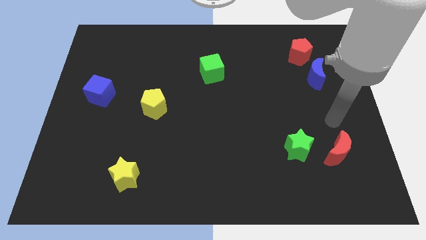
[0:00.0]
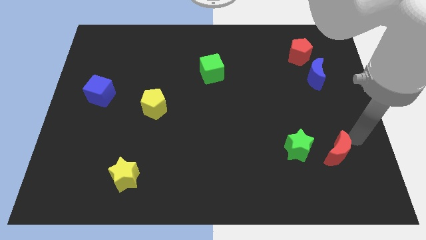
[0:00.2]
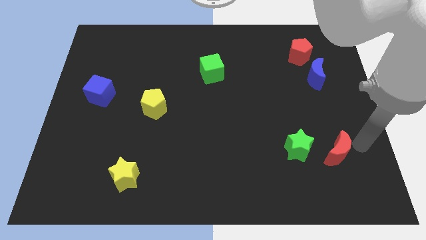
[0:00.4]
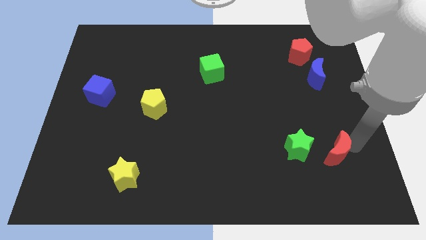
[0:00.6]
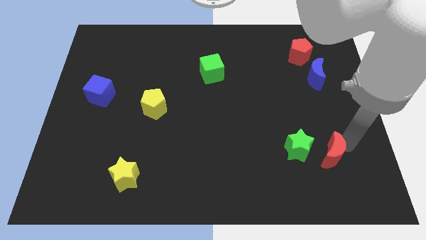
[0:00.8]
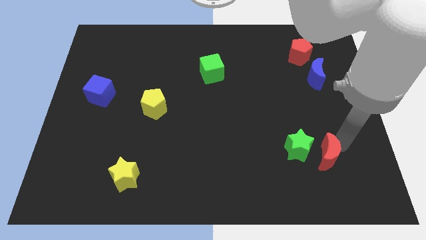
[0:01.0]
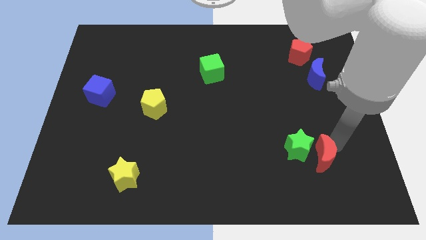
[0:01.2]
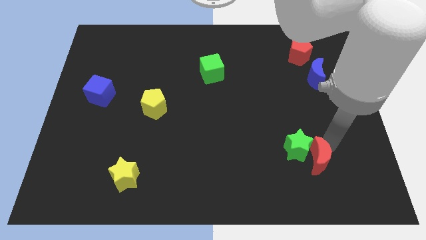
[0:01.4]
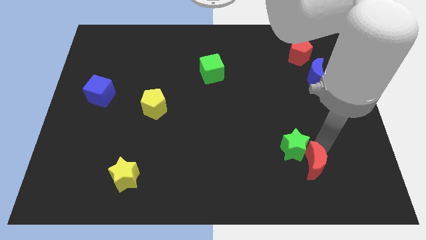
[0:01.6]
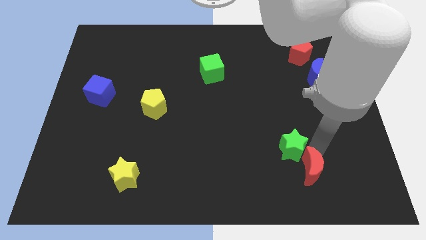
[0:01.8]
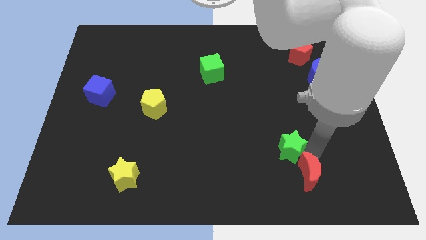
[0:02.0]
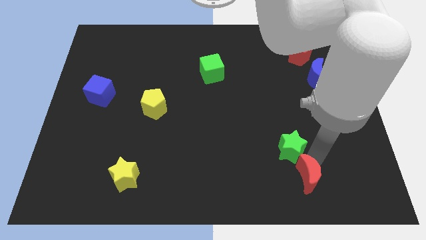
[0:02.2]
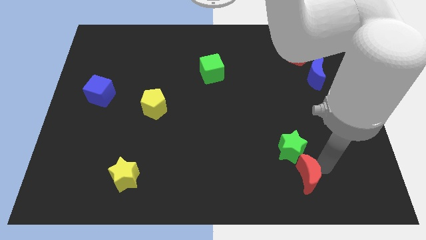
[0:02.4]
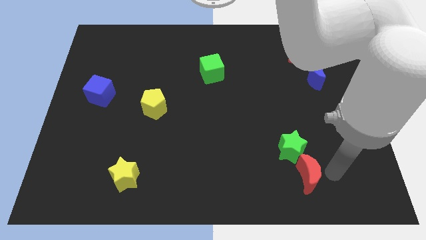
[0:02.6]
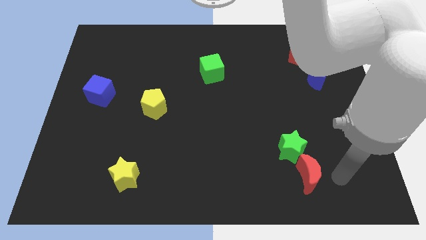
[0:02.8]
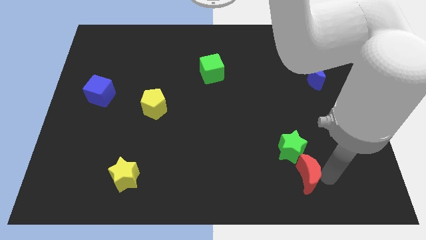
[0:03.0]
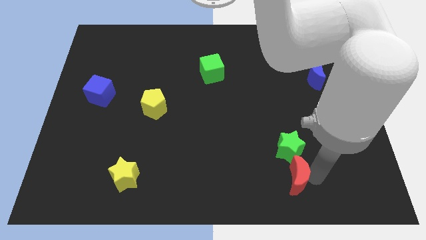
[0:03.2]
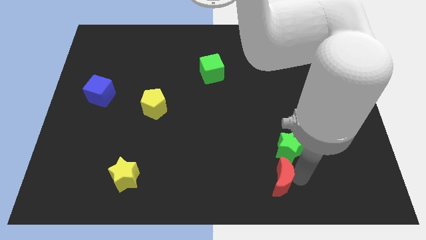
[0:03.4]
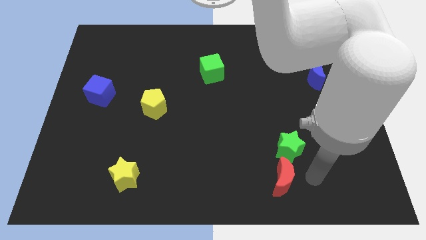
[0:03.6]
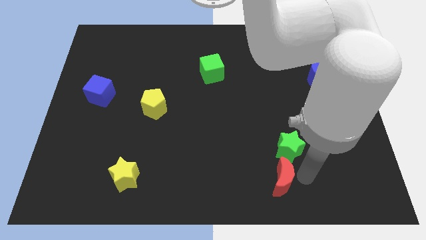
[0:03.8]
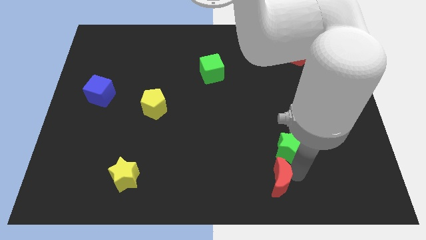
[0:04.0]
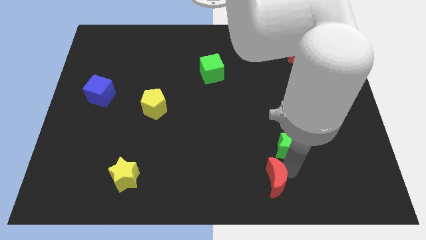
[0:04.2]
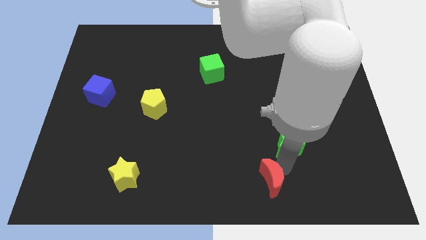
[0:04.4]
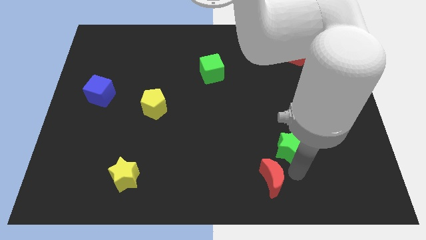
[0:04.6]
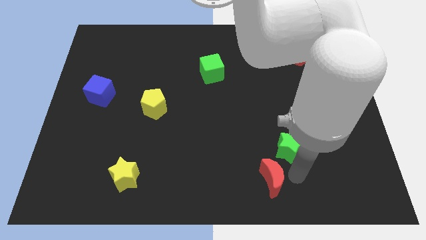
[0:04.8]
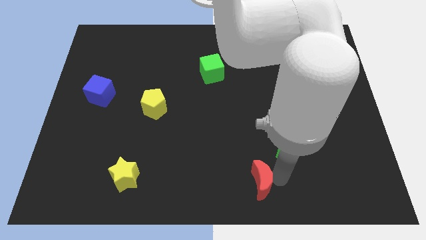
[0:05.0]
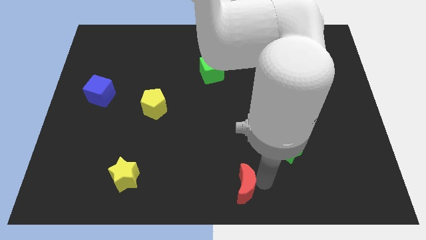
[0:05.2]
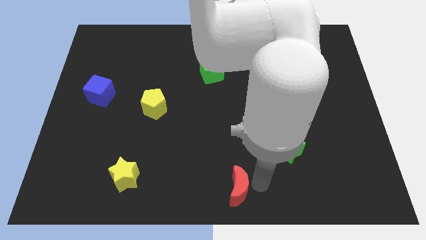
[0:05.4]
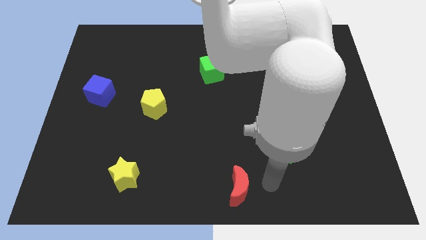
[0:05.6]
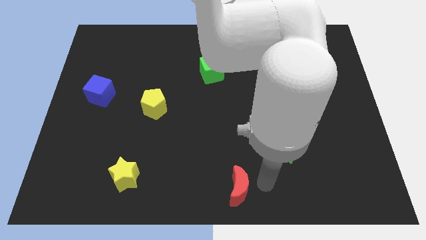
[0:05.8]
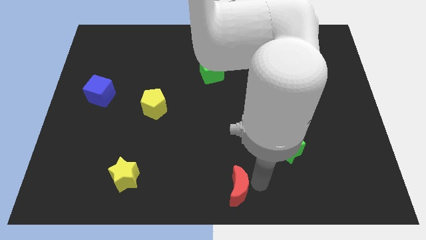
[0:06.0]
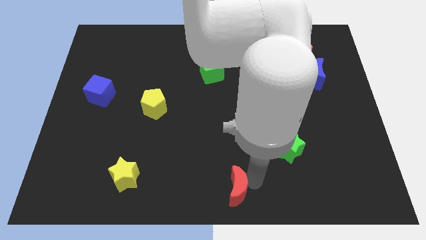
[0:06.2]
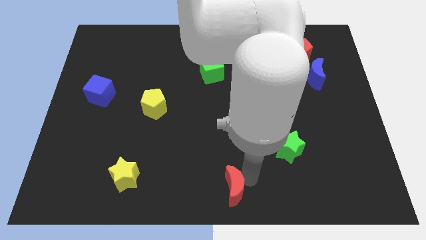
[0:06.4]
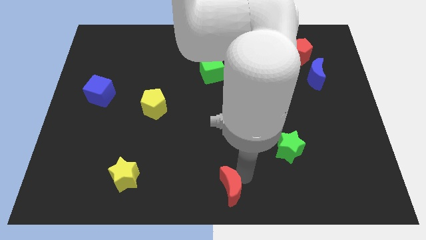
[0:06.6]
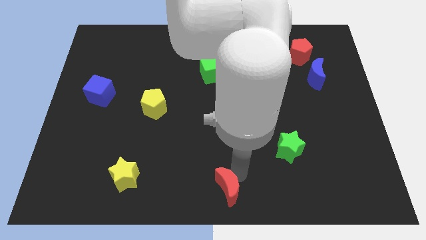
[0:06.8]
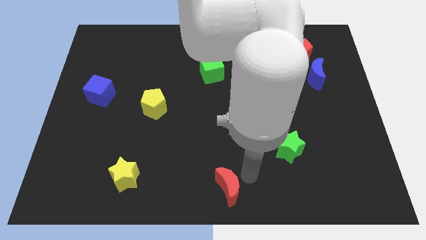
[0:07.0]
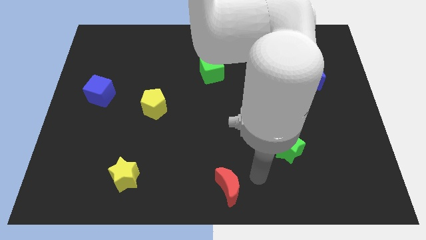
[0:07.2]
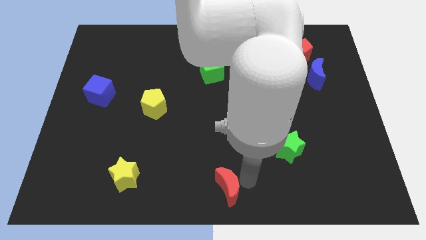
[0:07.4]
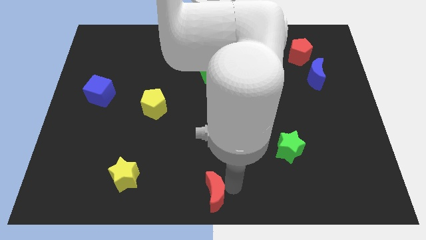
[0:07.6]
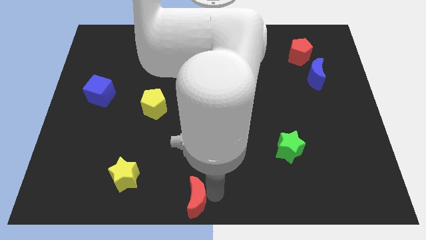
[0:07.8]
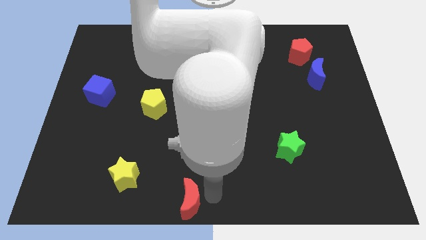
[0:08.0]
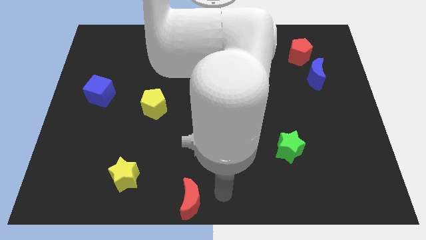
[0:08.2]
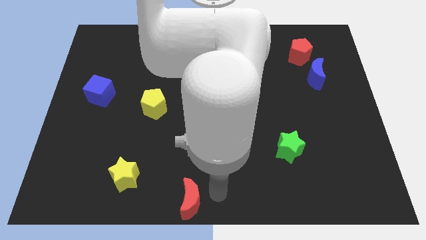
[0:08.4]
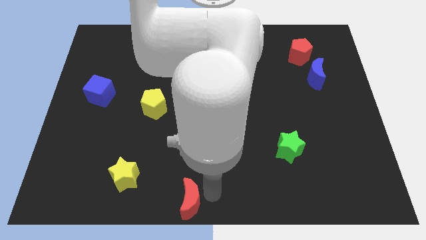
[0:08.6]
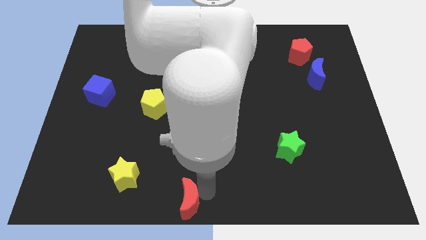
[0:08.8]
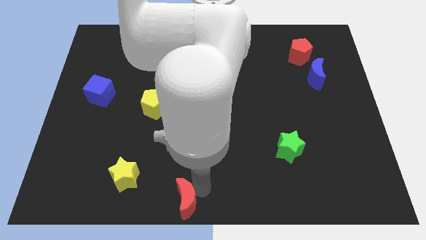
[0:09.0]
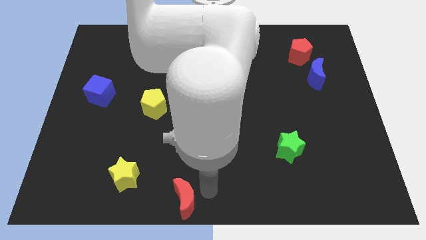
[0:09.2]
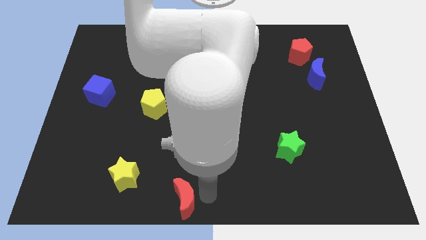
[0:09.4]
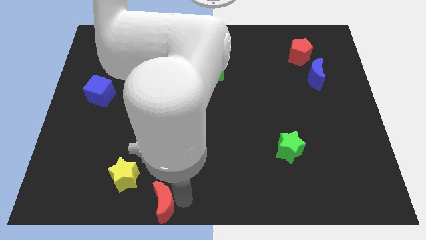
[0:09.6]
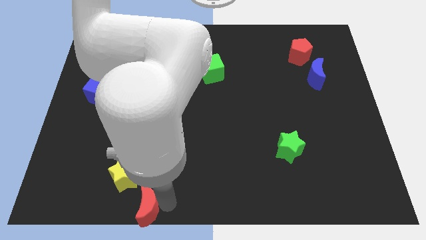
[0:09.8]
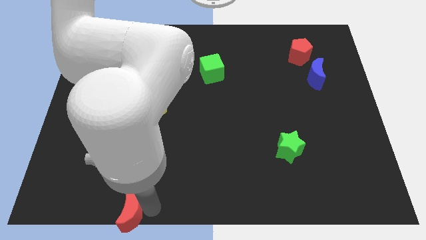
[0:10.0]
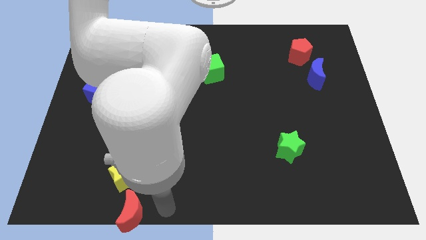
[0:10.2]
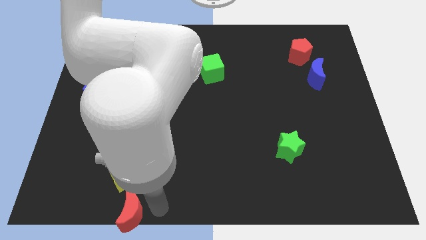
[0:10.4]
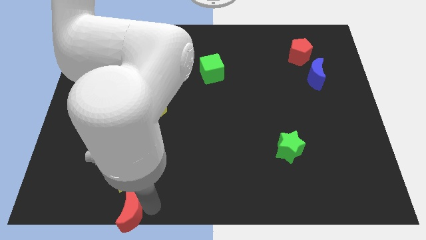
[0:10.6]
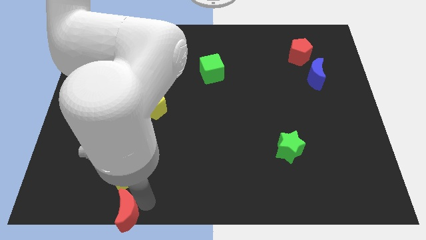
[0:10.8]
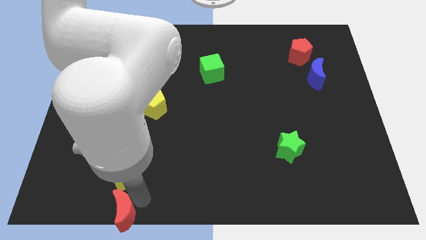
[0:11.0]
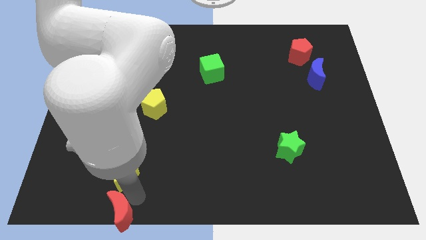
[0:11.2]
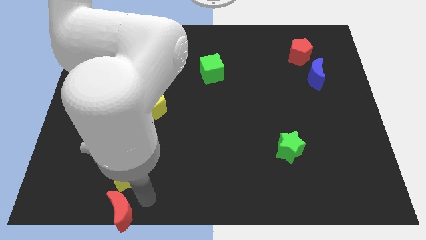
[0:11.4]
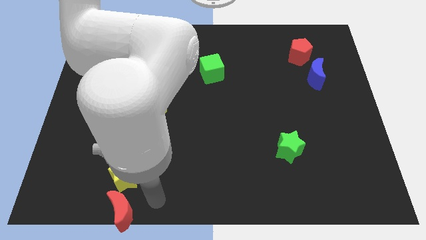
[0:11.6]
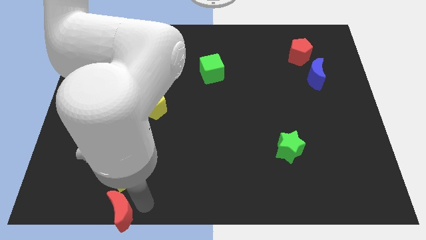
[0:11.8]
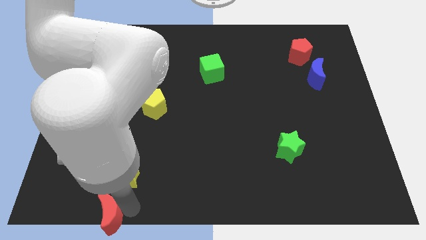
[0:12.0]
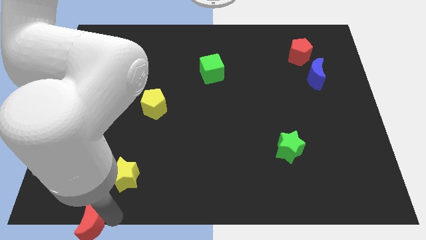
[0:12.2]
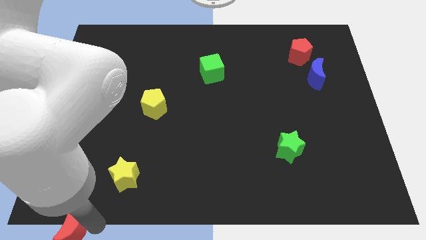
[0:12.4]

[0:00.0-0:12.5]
push the red moon to the lower left corner
